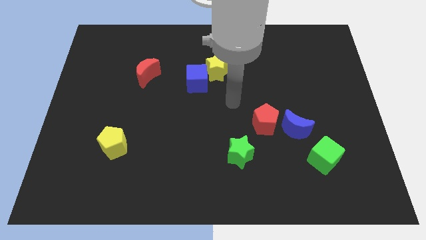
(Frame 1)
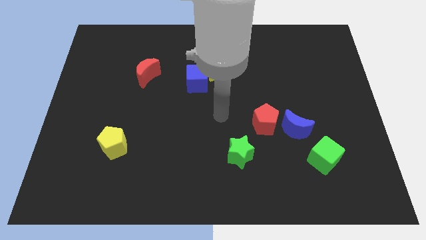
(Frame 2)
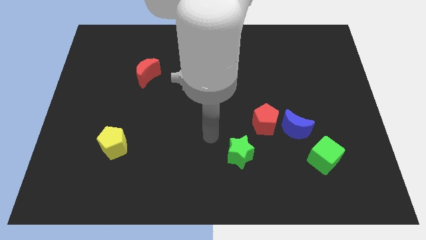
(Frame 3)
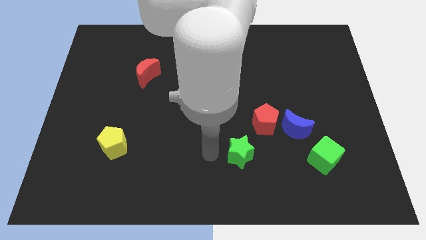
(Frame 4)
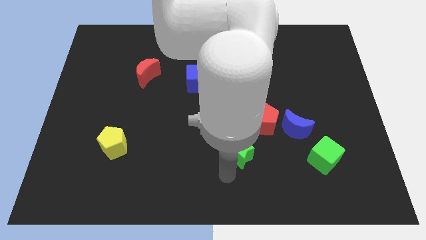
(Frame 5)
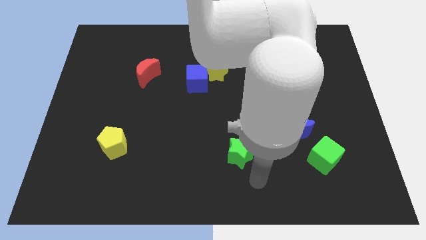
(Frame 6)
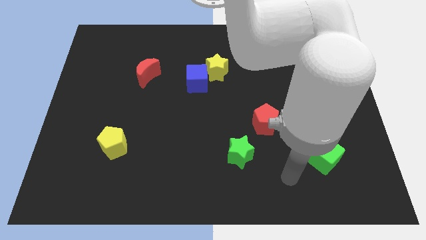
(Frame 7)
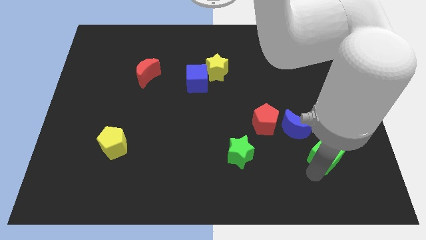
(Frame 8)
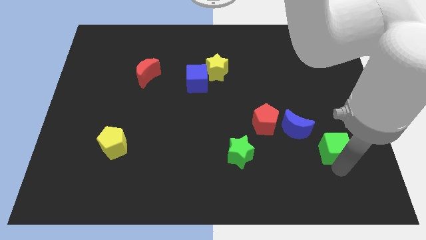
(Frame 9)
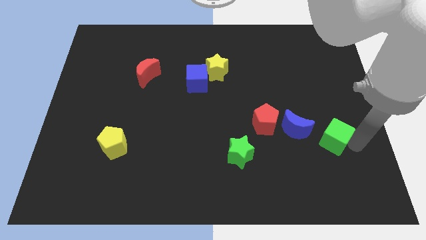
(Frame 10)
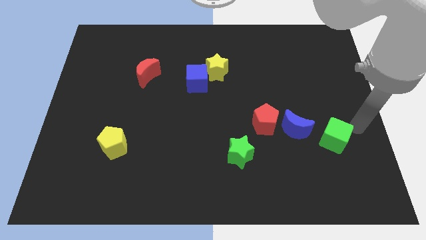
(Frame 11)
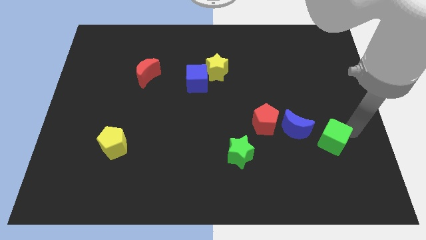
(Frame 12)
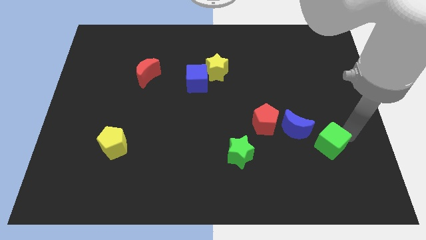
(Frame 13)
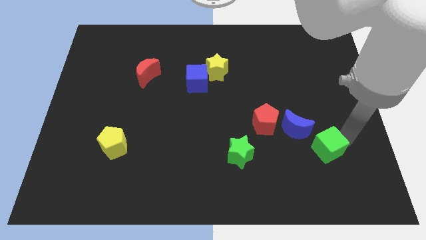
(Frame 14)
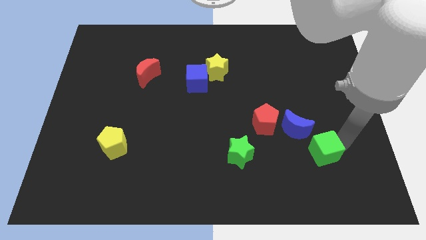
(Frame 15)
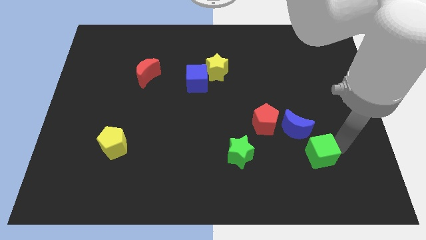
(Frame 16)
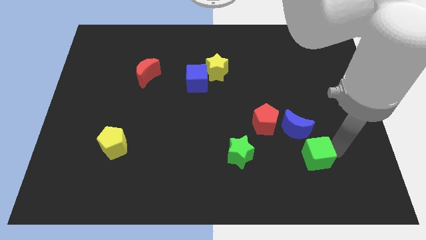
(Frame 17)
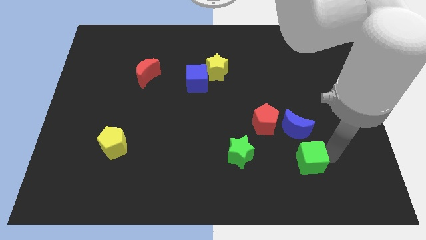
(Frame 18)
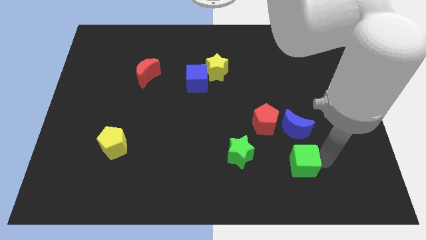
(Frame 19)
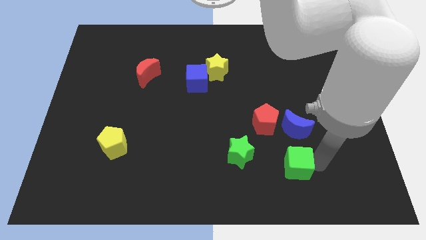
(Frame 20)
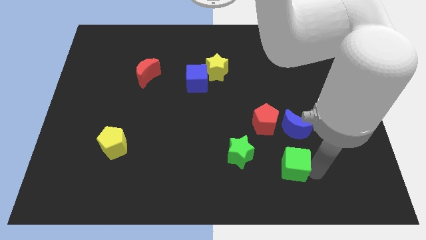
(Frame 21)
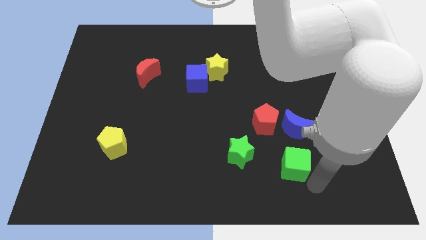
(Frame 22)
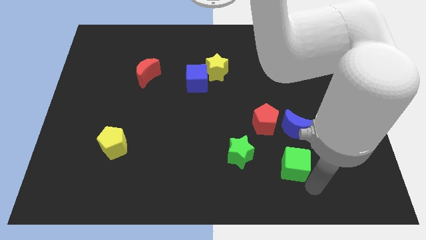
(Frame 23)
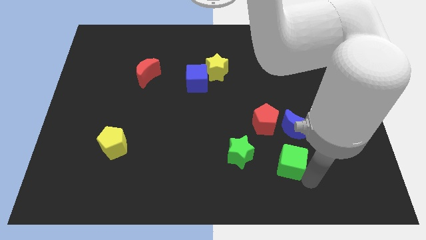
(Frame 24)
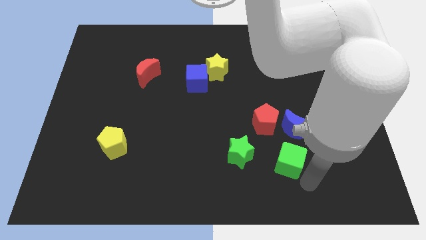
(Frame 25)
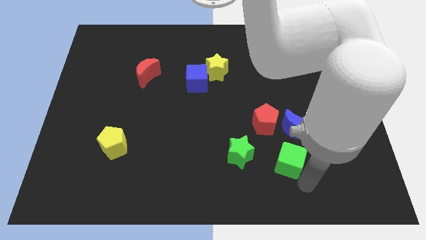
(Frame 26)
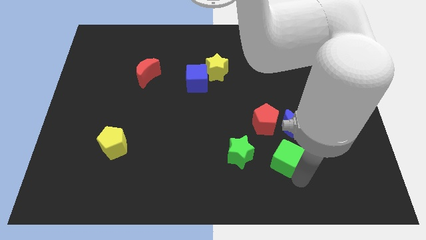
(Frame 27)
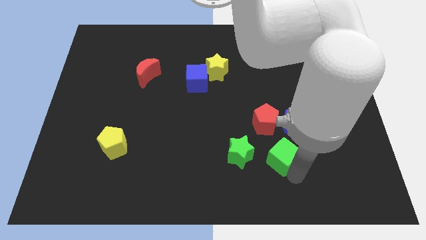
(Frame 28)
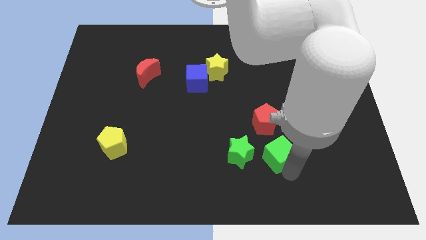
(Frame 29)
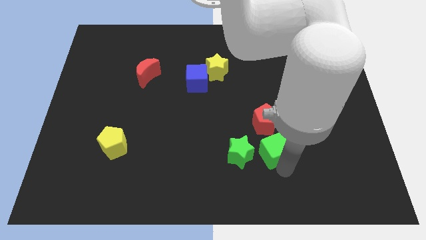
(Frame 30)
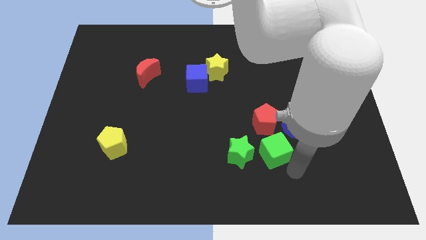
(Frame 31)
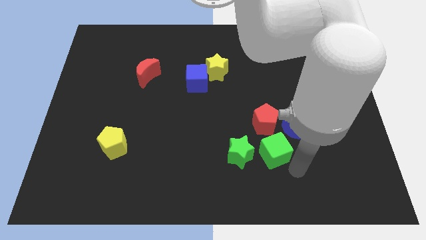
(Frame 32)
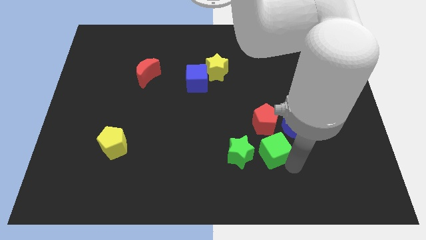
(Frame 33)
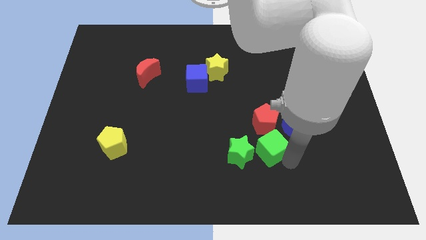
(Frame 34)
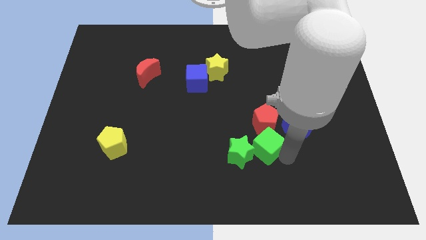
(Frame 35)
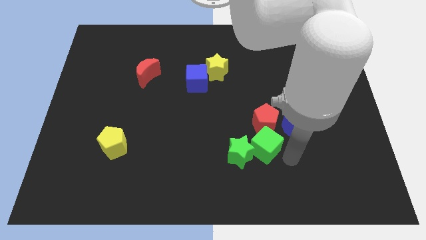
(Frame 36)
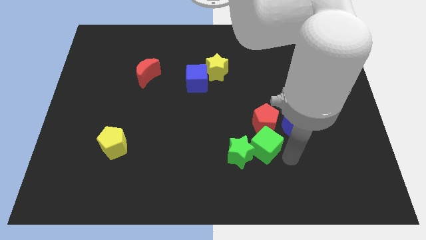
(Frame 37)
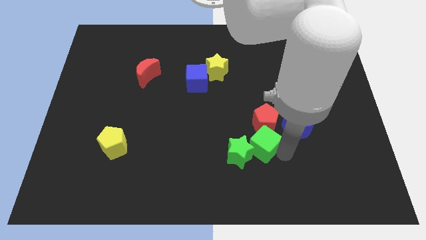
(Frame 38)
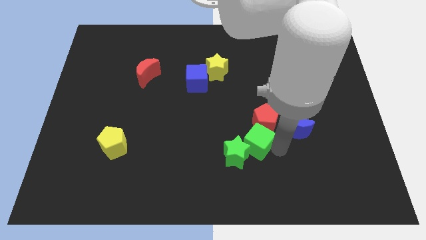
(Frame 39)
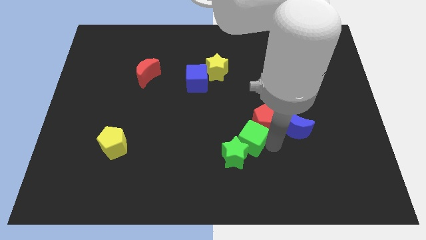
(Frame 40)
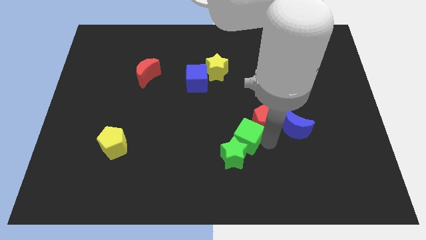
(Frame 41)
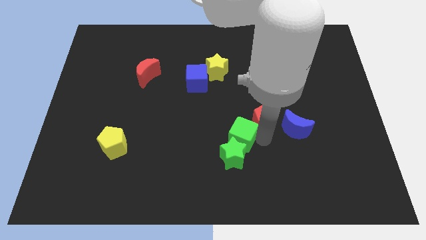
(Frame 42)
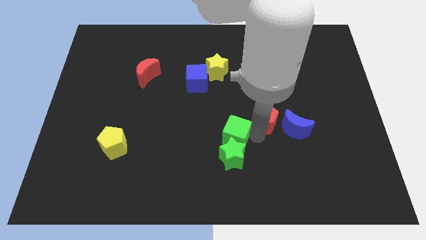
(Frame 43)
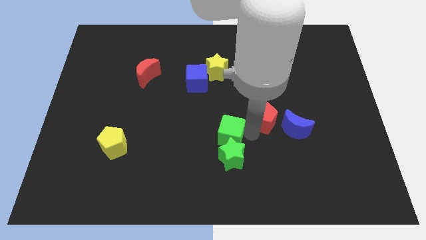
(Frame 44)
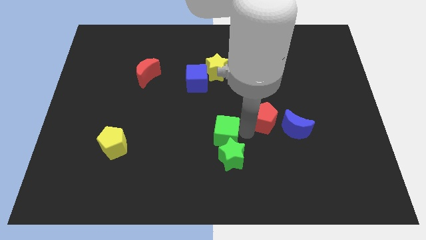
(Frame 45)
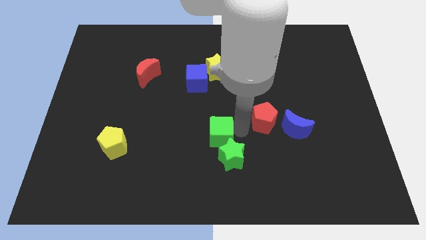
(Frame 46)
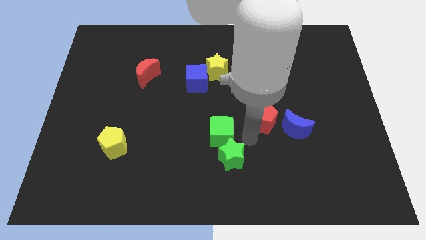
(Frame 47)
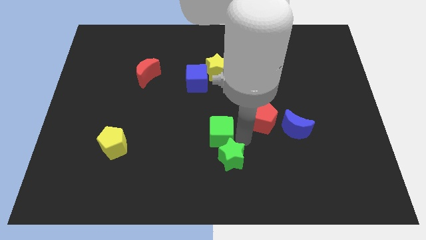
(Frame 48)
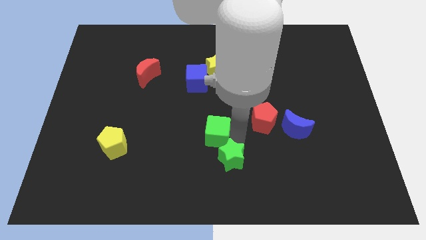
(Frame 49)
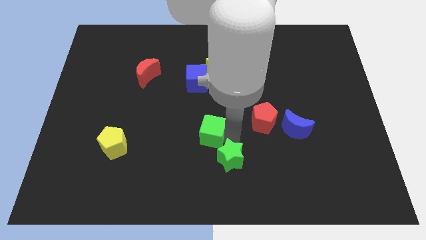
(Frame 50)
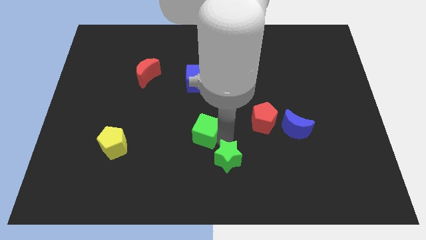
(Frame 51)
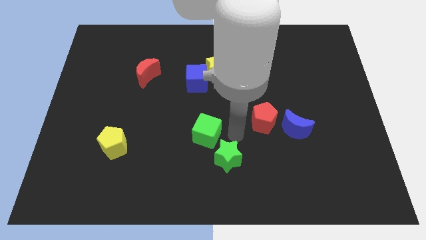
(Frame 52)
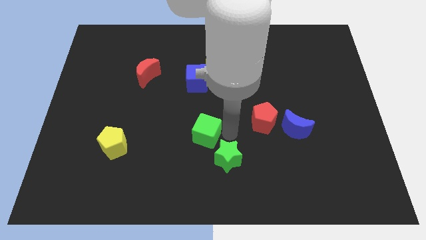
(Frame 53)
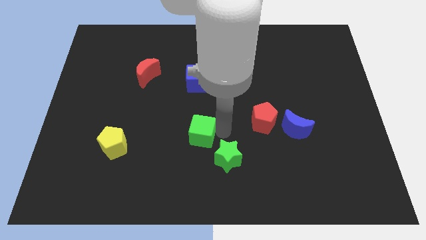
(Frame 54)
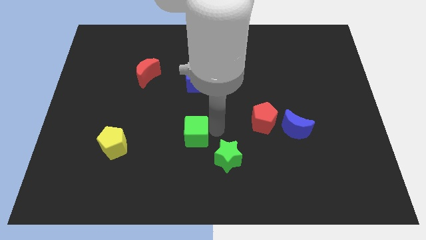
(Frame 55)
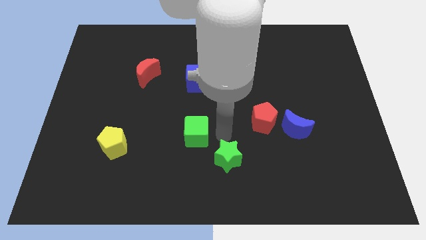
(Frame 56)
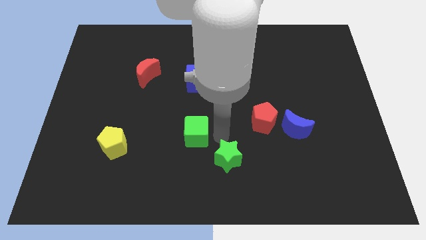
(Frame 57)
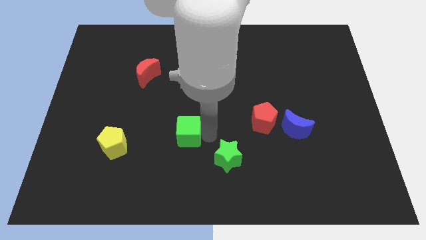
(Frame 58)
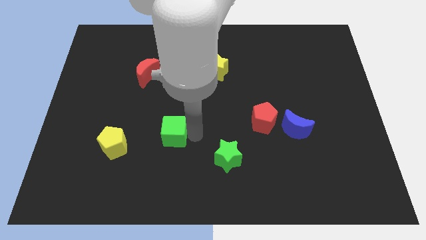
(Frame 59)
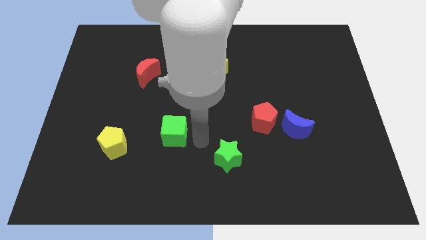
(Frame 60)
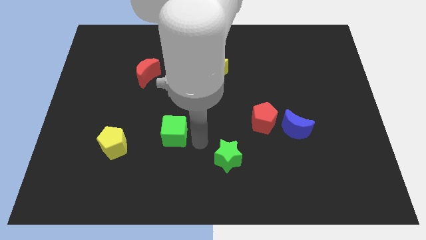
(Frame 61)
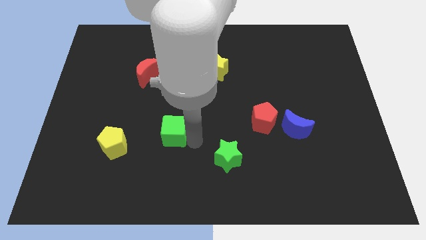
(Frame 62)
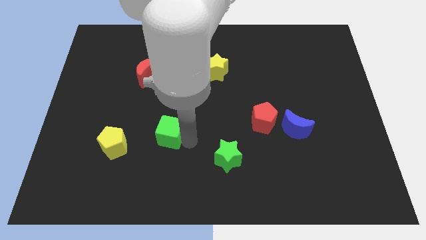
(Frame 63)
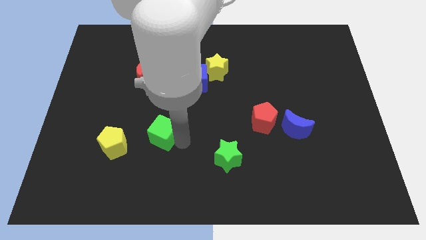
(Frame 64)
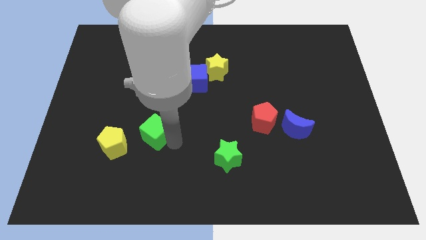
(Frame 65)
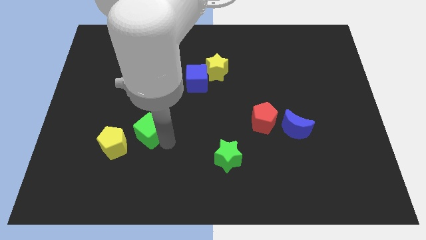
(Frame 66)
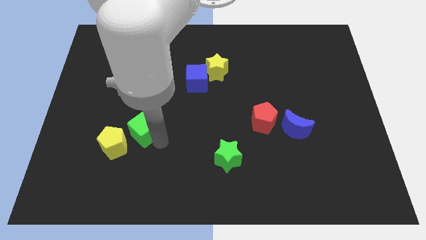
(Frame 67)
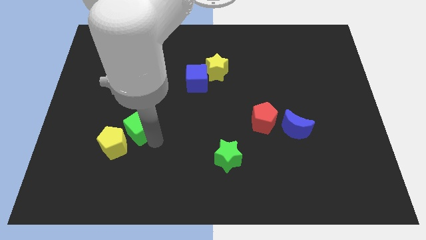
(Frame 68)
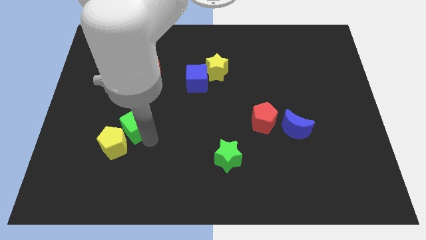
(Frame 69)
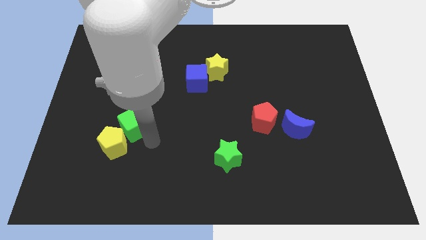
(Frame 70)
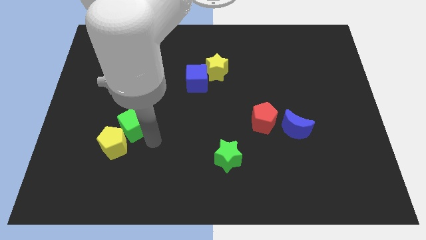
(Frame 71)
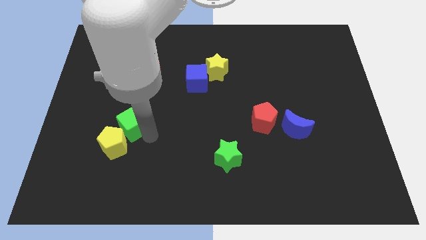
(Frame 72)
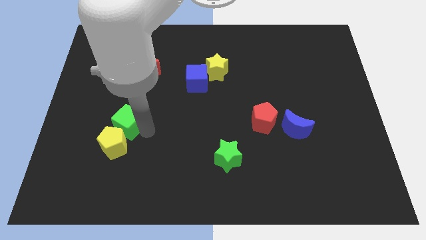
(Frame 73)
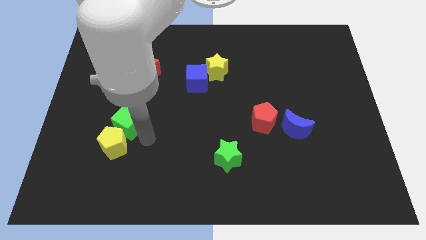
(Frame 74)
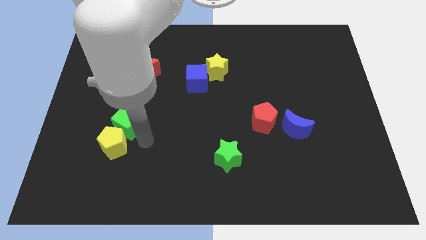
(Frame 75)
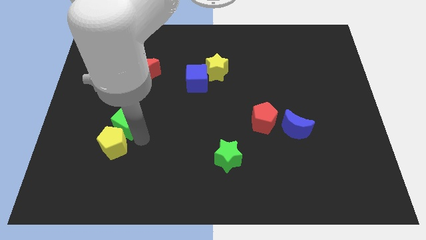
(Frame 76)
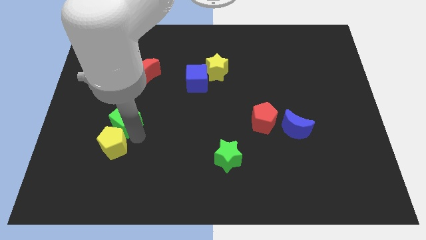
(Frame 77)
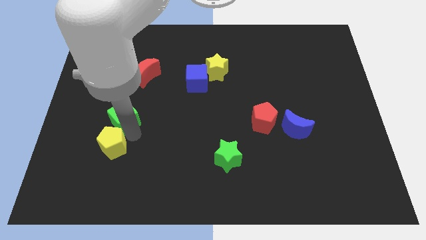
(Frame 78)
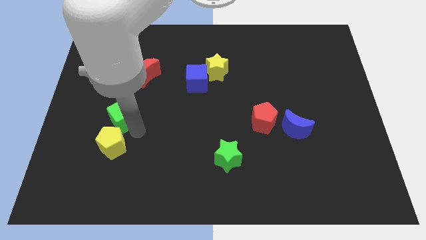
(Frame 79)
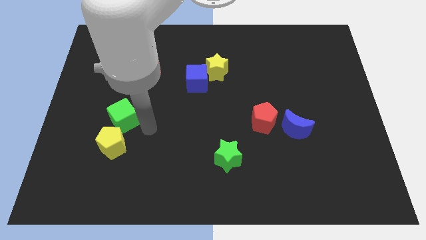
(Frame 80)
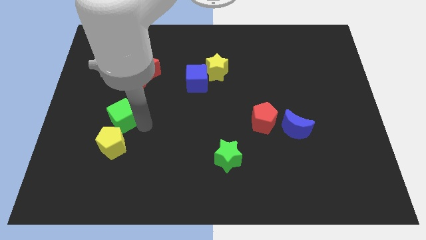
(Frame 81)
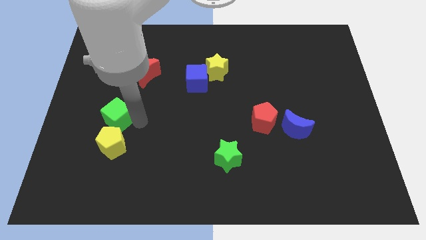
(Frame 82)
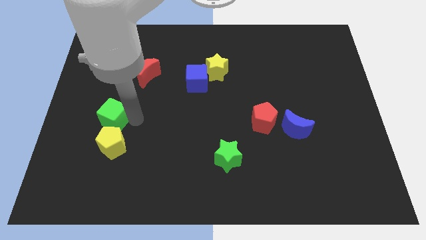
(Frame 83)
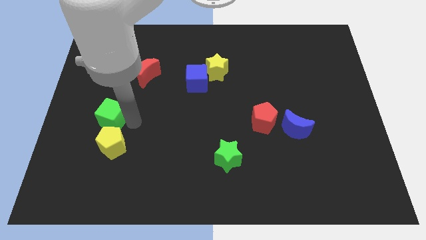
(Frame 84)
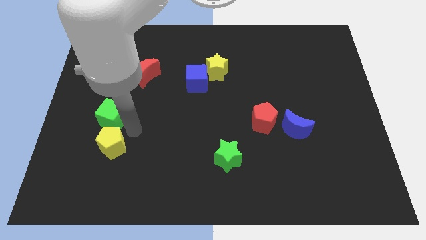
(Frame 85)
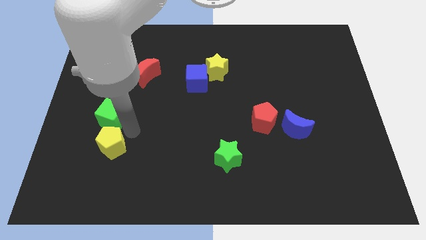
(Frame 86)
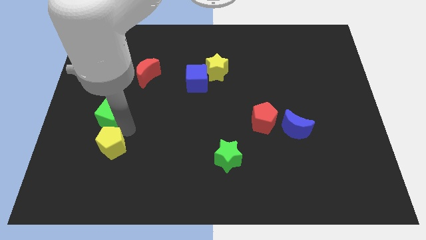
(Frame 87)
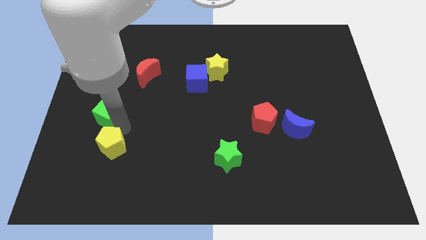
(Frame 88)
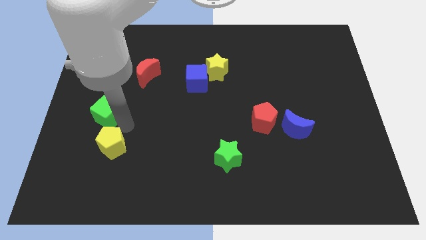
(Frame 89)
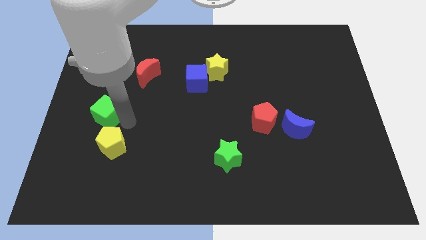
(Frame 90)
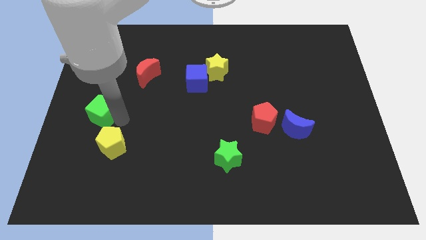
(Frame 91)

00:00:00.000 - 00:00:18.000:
push the green cube to the left side of the board
